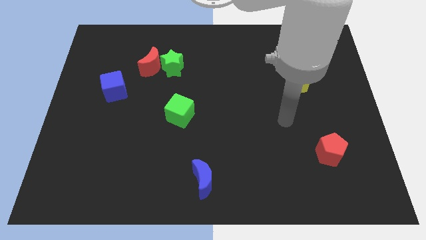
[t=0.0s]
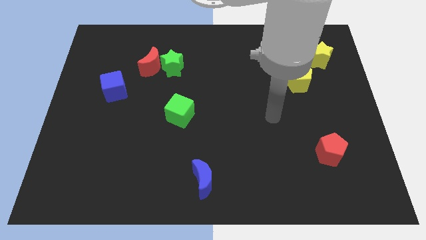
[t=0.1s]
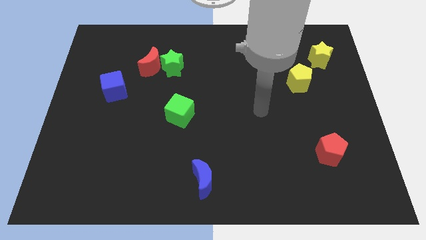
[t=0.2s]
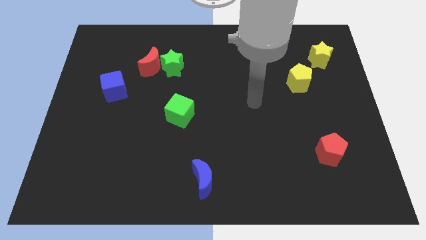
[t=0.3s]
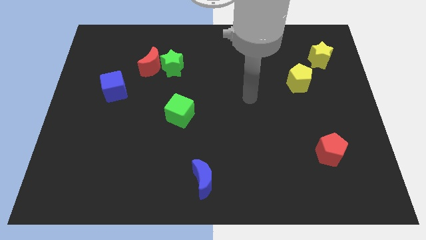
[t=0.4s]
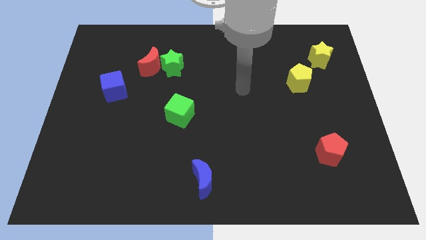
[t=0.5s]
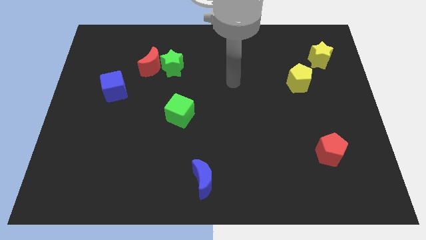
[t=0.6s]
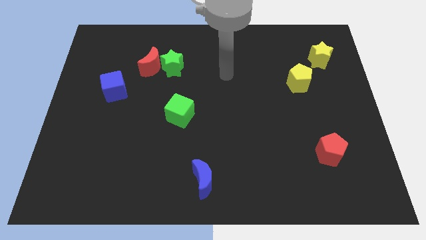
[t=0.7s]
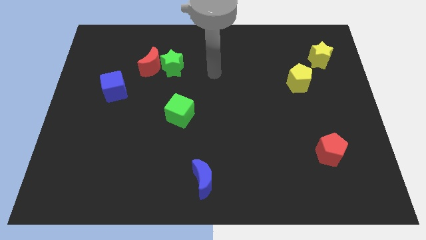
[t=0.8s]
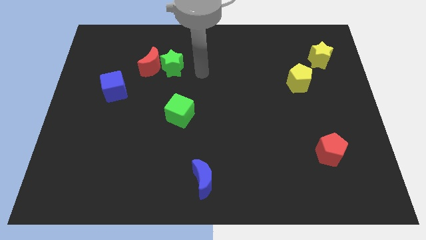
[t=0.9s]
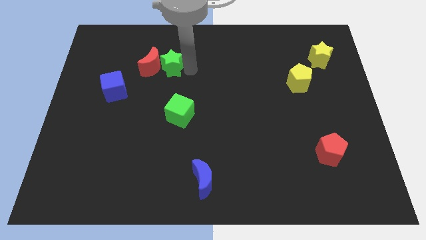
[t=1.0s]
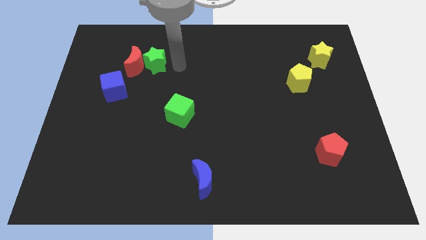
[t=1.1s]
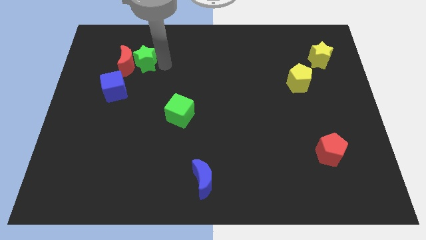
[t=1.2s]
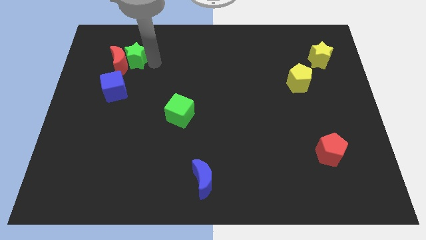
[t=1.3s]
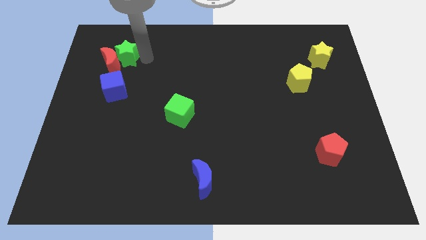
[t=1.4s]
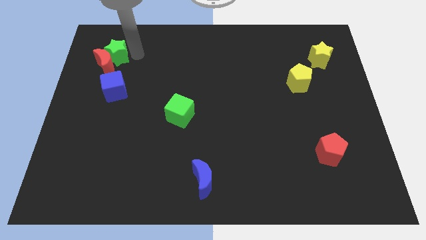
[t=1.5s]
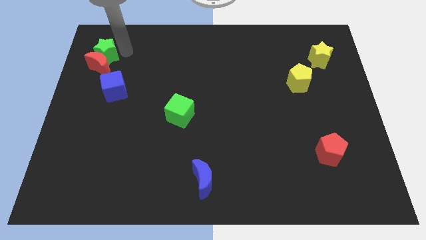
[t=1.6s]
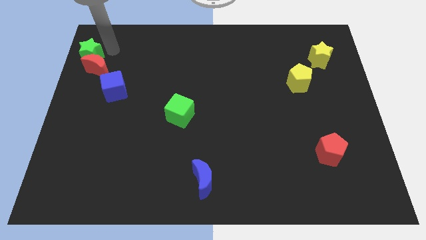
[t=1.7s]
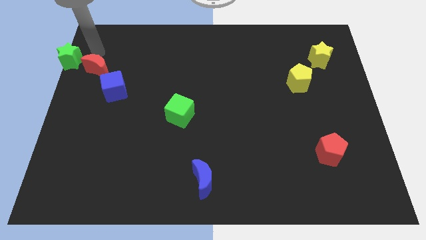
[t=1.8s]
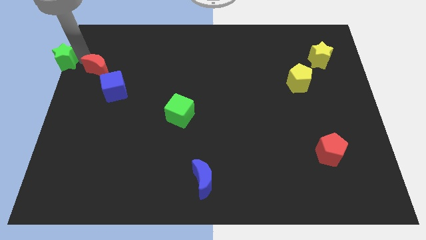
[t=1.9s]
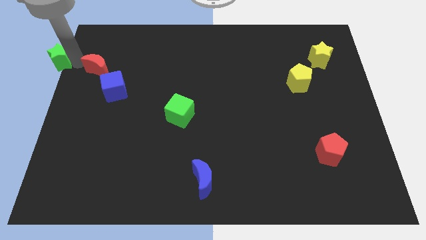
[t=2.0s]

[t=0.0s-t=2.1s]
pull the red moon apart from the green star

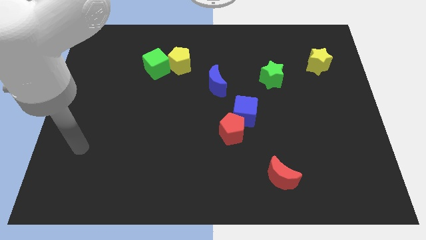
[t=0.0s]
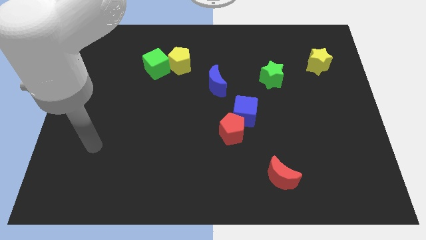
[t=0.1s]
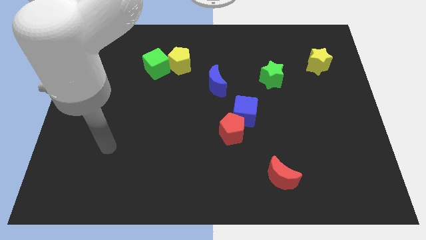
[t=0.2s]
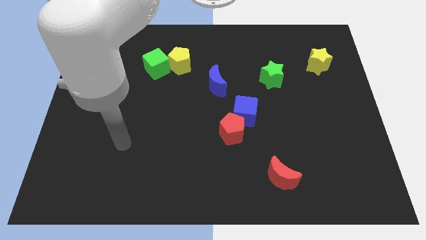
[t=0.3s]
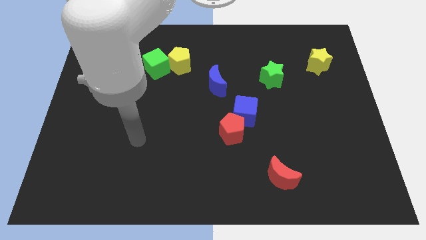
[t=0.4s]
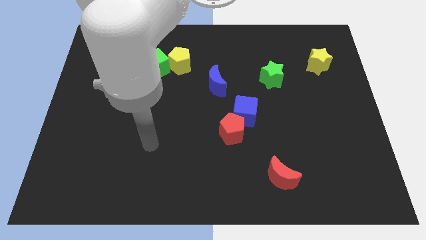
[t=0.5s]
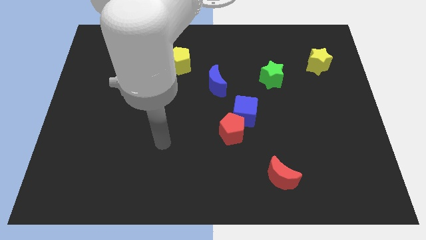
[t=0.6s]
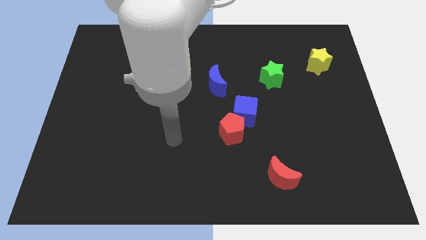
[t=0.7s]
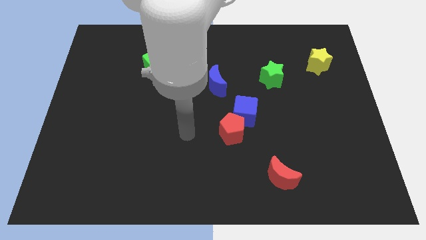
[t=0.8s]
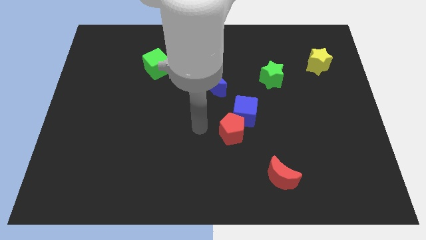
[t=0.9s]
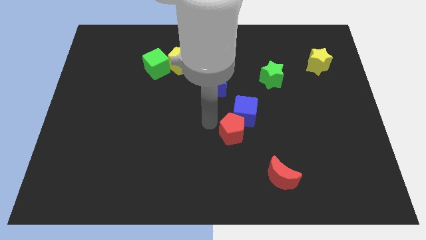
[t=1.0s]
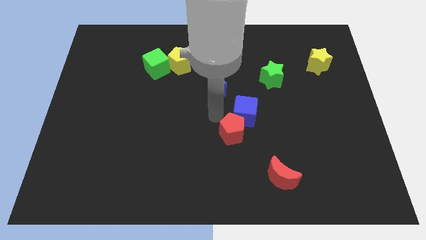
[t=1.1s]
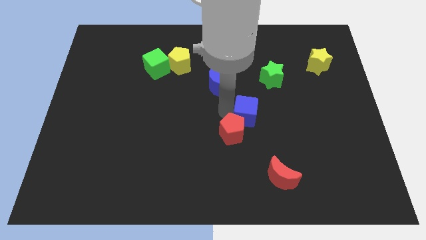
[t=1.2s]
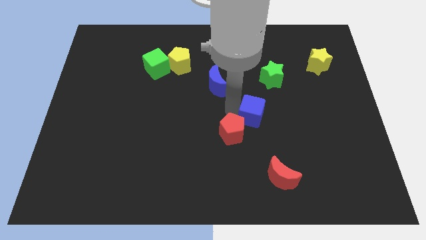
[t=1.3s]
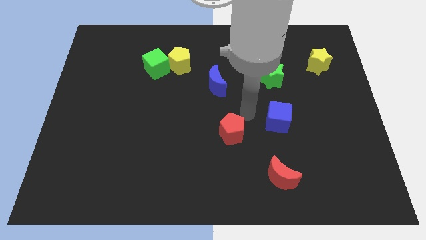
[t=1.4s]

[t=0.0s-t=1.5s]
separate the red pentagon from the blue cube

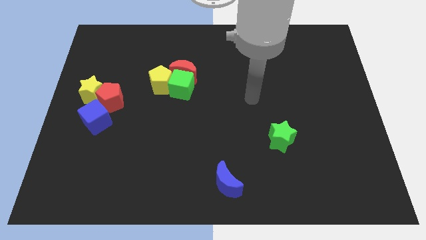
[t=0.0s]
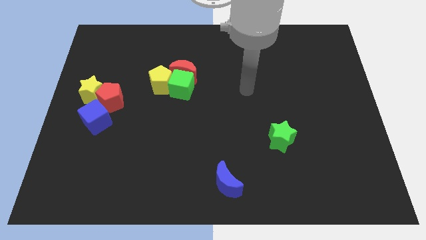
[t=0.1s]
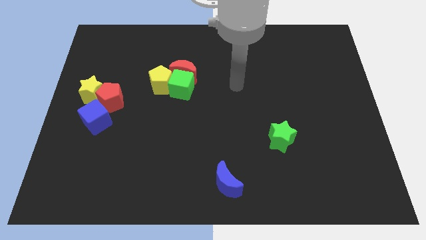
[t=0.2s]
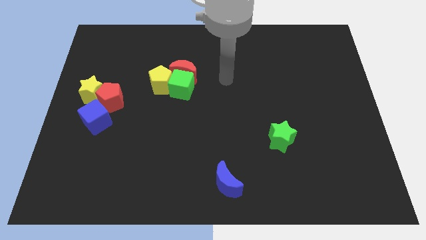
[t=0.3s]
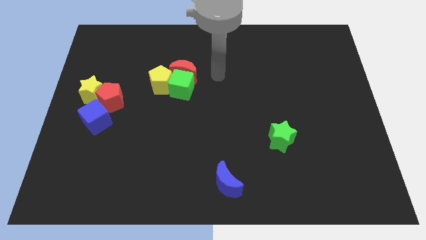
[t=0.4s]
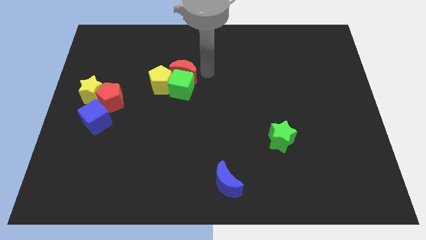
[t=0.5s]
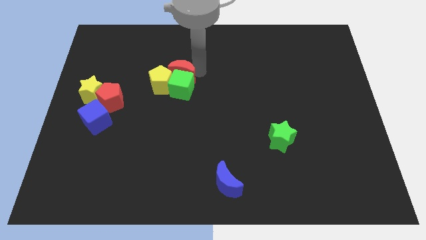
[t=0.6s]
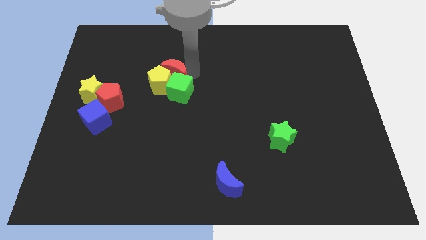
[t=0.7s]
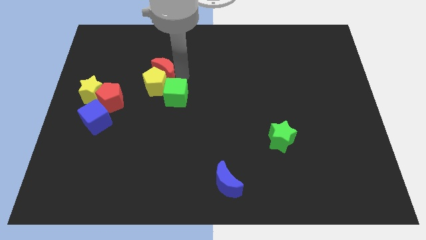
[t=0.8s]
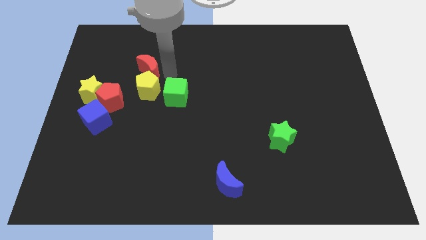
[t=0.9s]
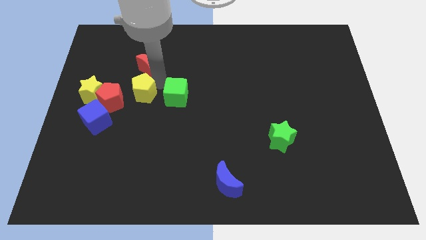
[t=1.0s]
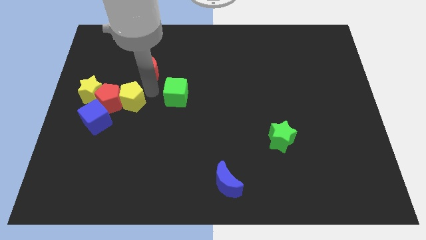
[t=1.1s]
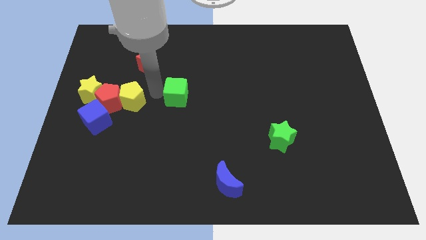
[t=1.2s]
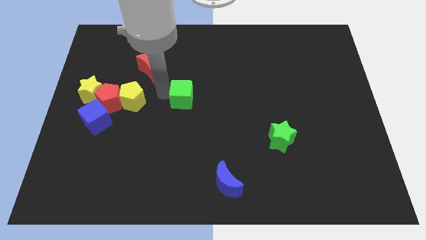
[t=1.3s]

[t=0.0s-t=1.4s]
pull the green cube apart from the red moon and yellow pentagon

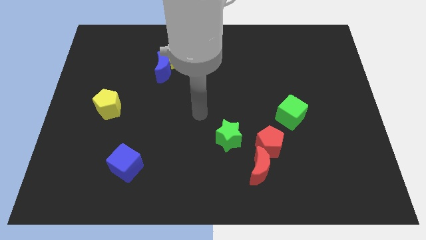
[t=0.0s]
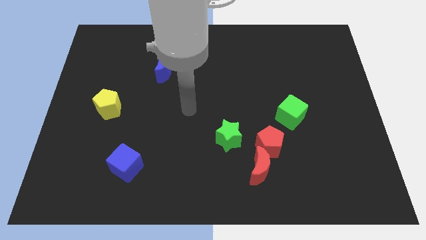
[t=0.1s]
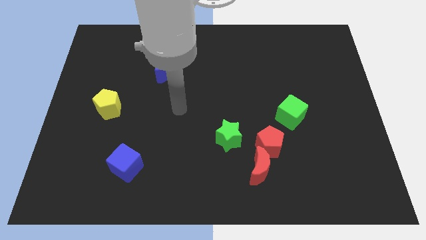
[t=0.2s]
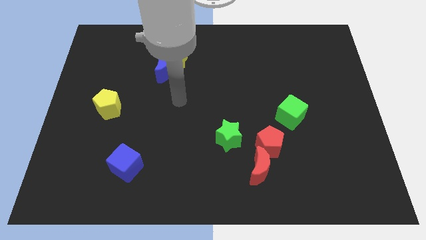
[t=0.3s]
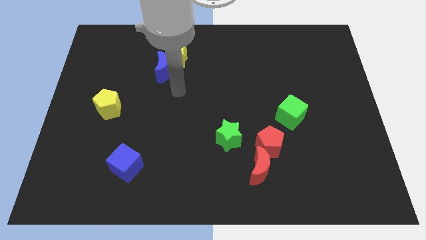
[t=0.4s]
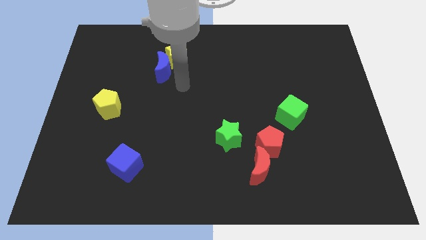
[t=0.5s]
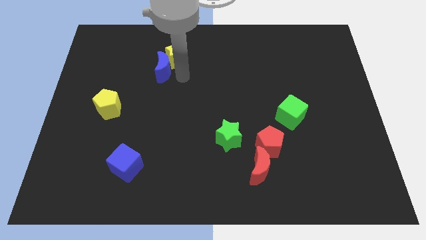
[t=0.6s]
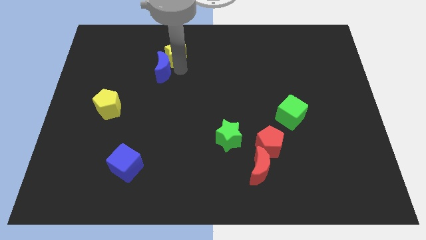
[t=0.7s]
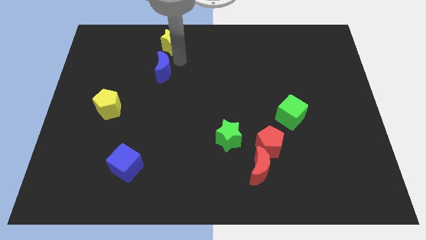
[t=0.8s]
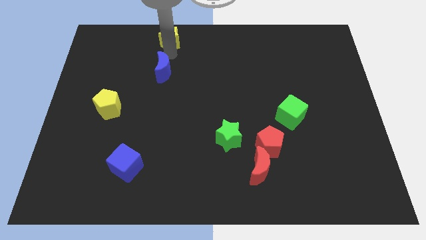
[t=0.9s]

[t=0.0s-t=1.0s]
move the blue moon away from the yellow star

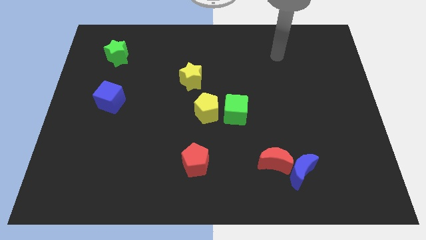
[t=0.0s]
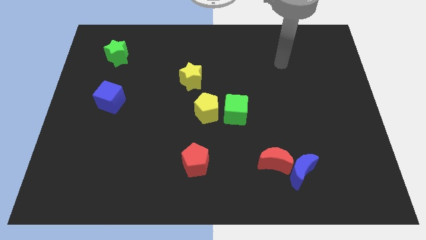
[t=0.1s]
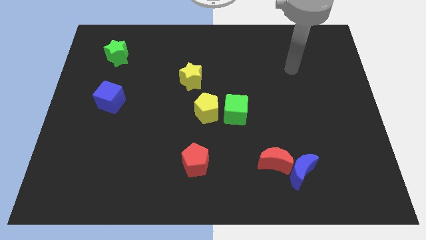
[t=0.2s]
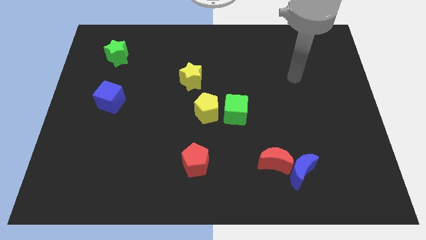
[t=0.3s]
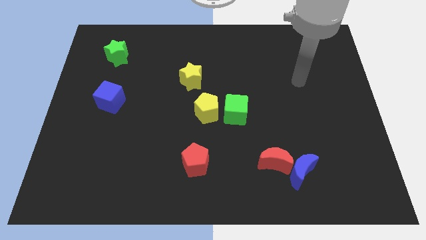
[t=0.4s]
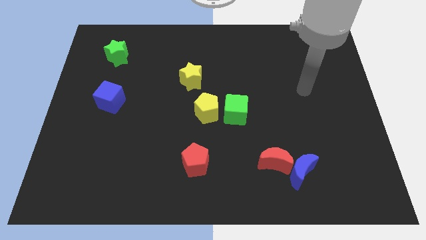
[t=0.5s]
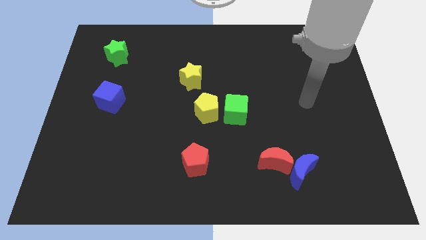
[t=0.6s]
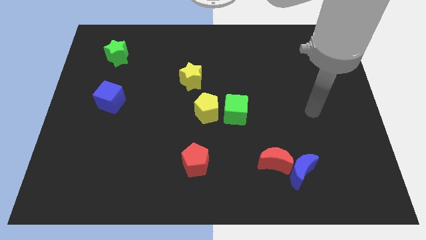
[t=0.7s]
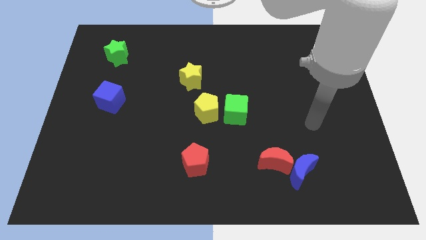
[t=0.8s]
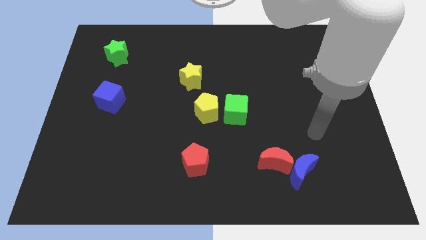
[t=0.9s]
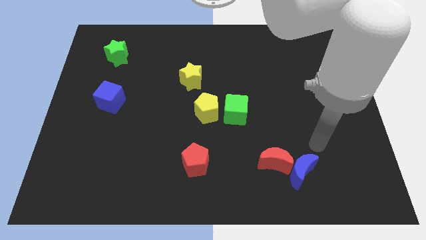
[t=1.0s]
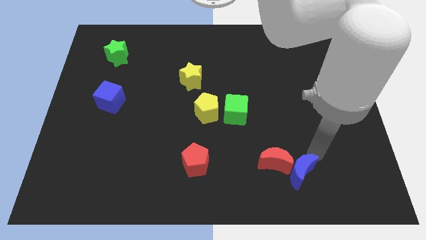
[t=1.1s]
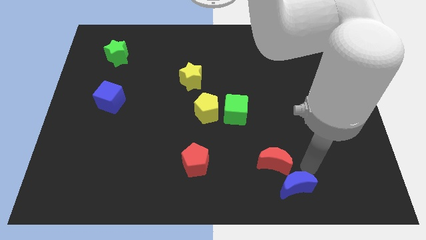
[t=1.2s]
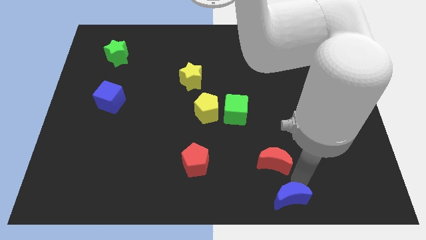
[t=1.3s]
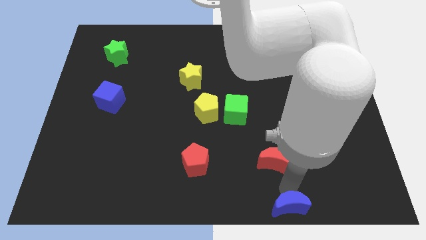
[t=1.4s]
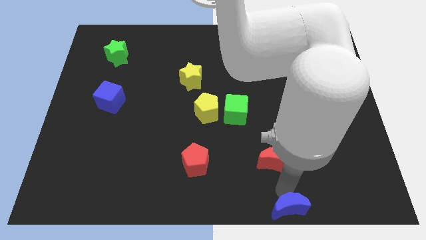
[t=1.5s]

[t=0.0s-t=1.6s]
pull the red moon apart from the blue moon

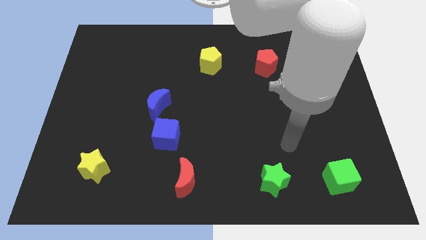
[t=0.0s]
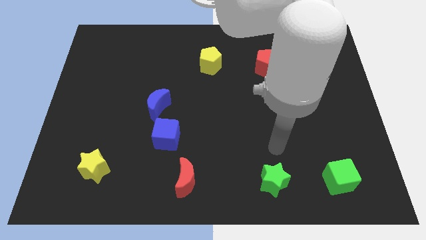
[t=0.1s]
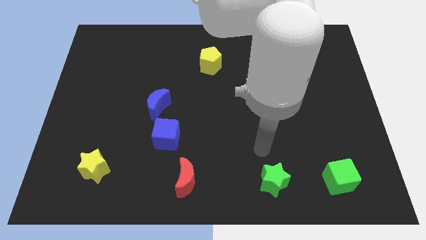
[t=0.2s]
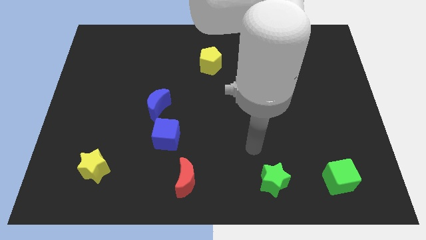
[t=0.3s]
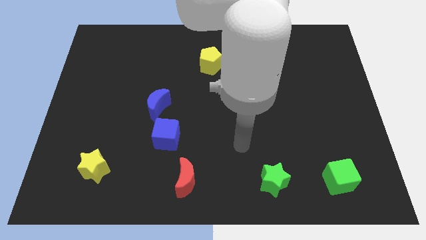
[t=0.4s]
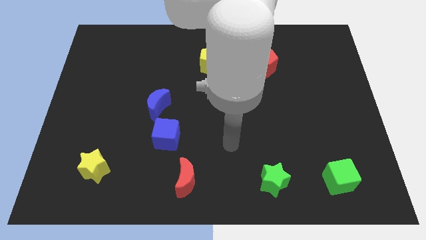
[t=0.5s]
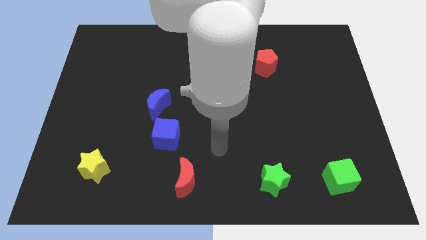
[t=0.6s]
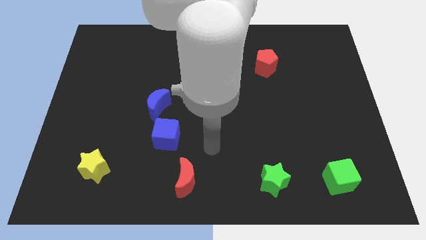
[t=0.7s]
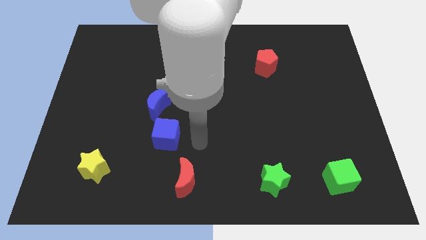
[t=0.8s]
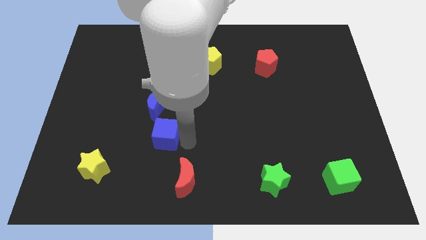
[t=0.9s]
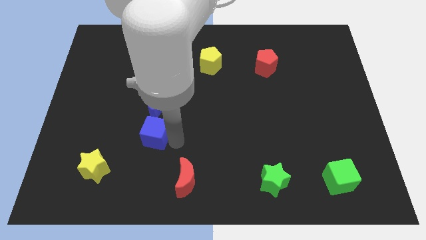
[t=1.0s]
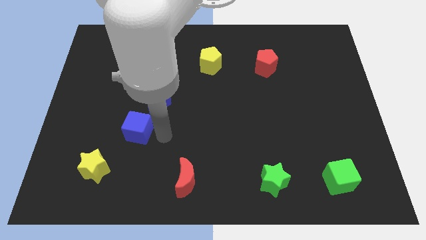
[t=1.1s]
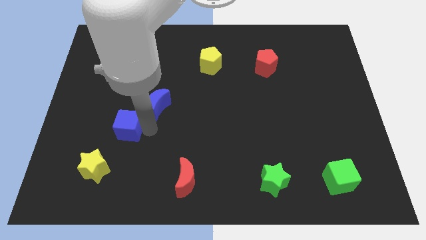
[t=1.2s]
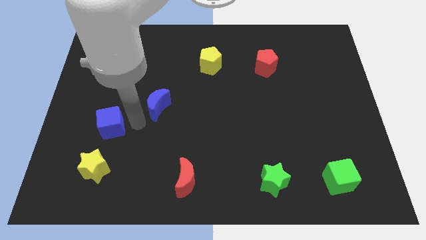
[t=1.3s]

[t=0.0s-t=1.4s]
pull the blue moon apart from the blue cube

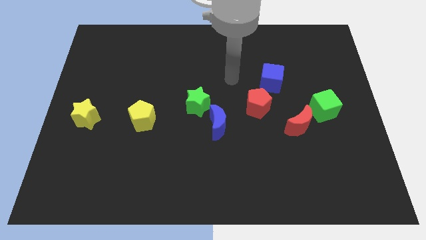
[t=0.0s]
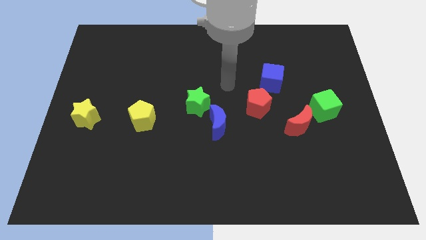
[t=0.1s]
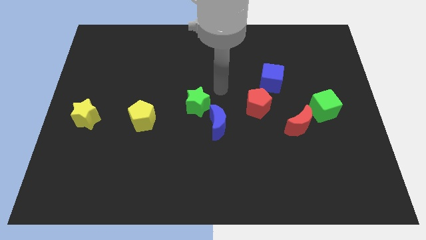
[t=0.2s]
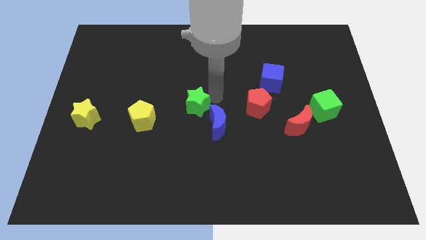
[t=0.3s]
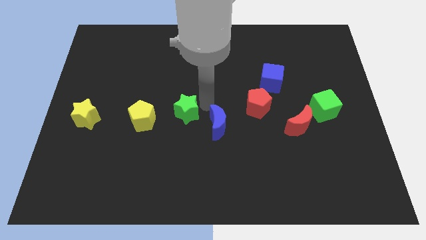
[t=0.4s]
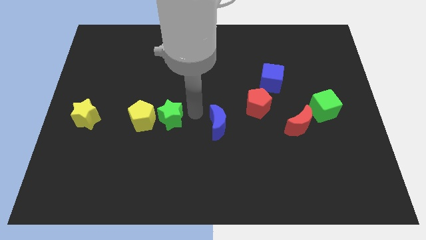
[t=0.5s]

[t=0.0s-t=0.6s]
move the blue moon away from the green star
